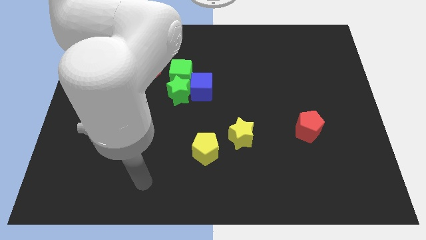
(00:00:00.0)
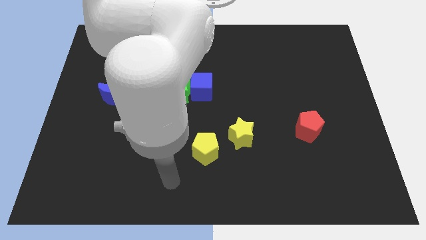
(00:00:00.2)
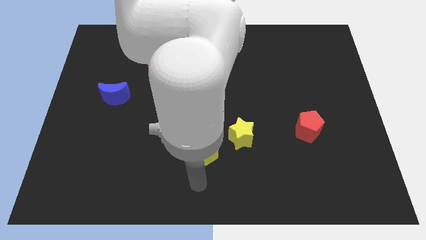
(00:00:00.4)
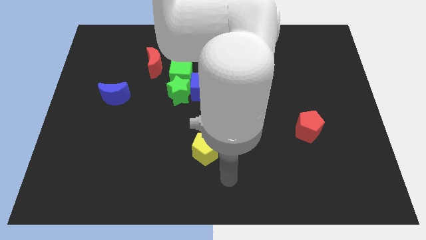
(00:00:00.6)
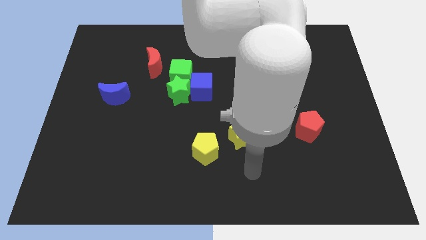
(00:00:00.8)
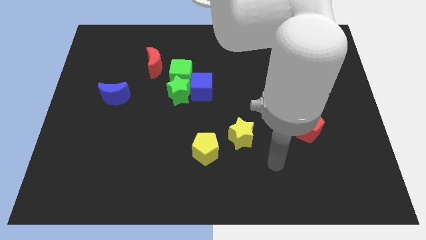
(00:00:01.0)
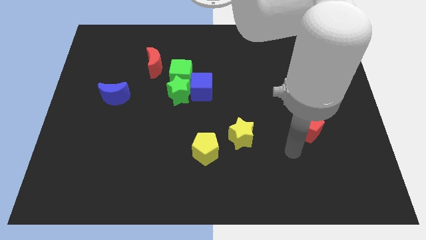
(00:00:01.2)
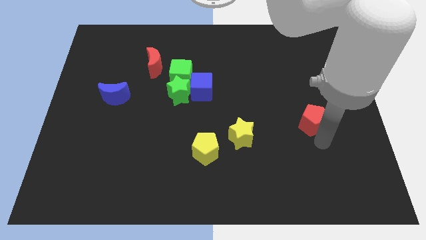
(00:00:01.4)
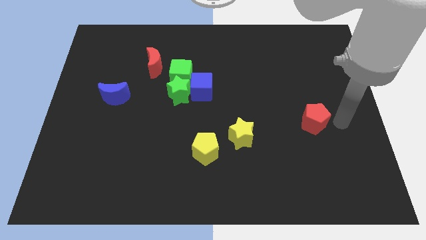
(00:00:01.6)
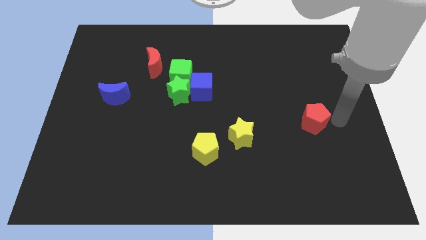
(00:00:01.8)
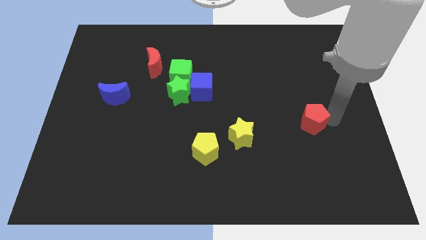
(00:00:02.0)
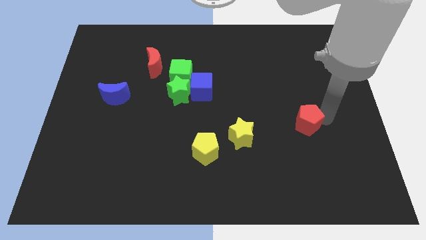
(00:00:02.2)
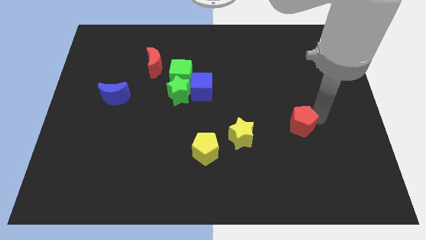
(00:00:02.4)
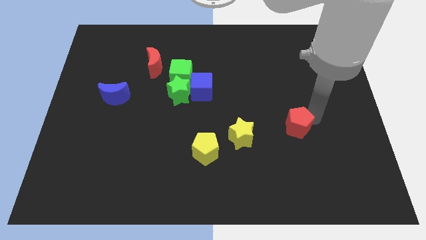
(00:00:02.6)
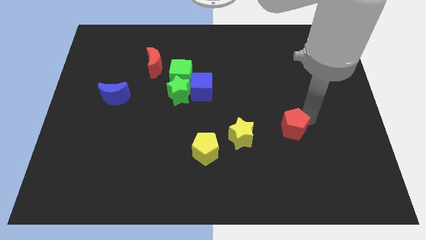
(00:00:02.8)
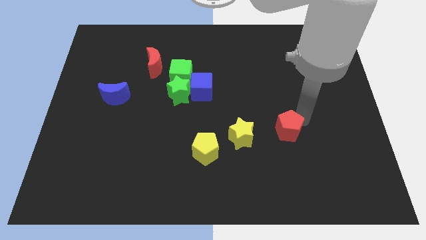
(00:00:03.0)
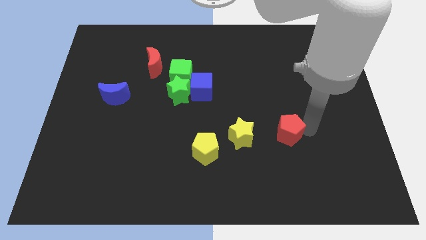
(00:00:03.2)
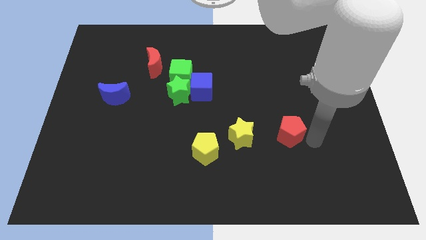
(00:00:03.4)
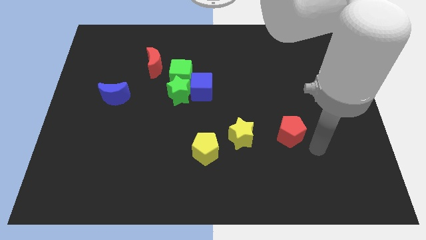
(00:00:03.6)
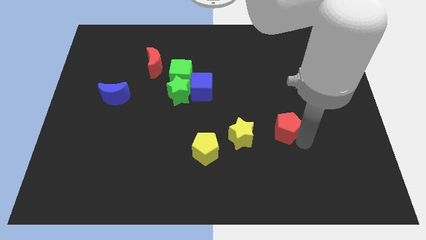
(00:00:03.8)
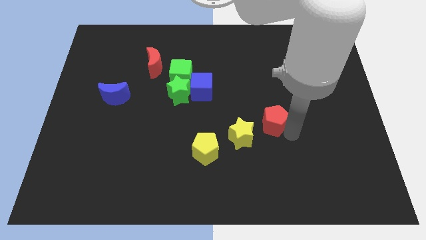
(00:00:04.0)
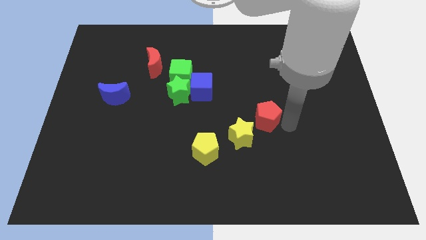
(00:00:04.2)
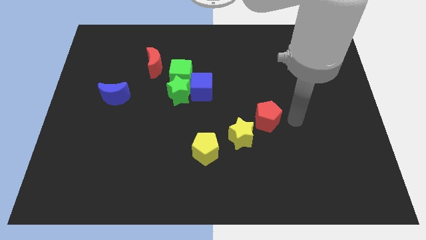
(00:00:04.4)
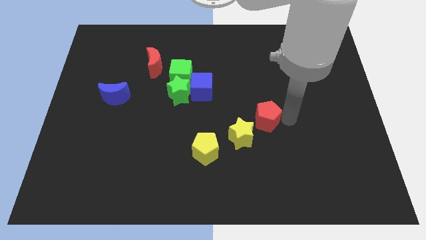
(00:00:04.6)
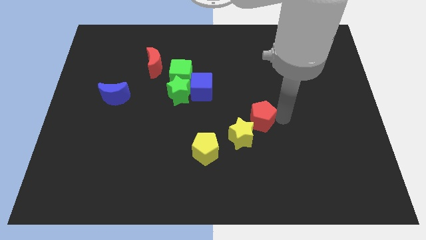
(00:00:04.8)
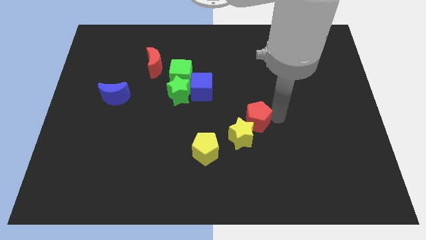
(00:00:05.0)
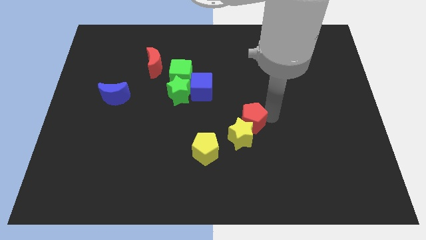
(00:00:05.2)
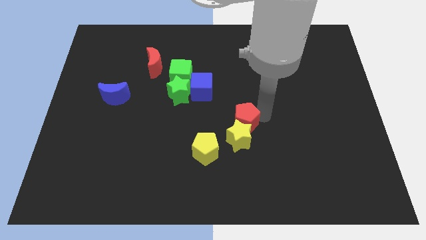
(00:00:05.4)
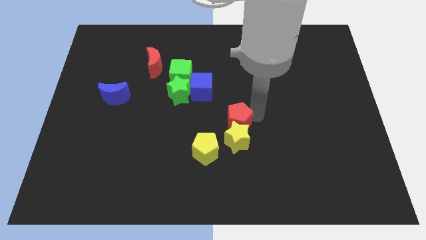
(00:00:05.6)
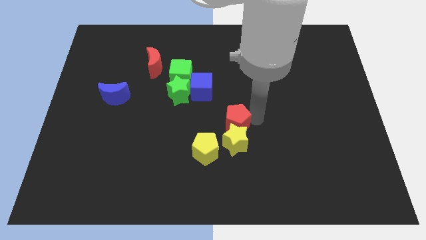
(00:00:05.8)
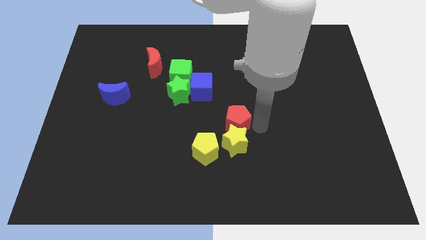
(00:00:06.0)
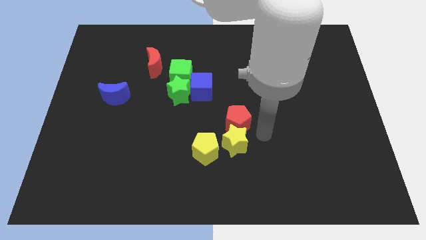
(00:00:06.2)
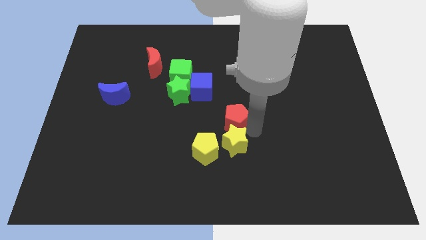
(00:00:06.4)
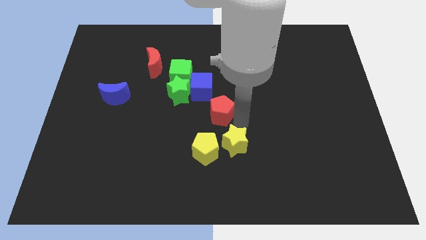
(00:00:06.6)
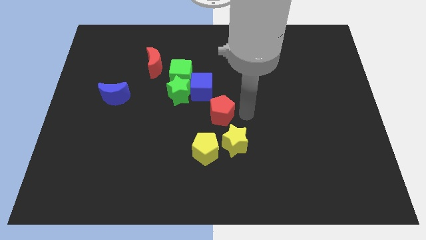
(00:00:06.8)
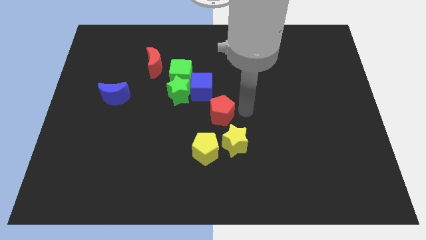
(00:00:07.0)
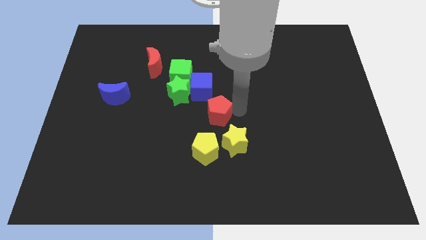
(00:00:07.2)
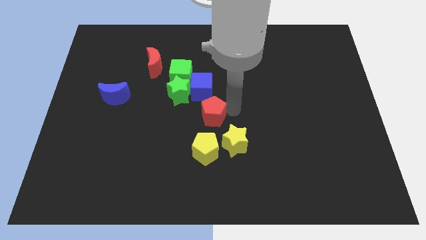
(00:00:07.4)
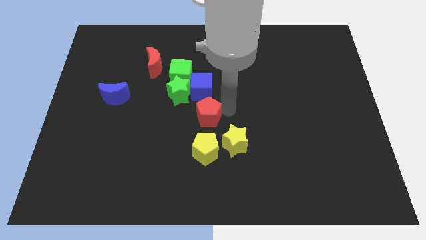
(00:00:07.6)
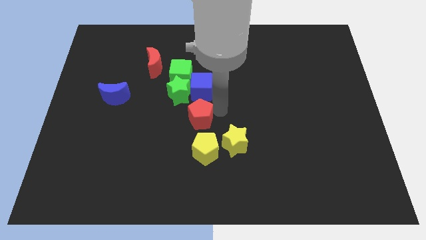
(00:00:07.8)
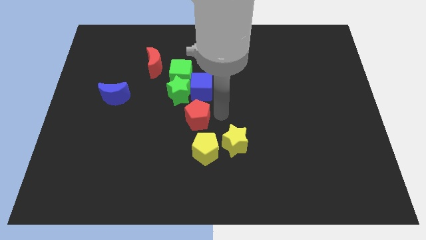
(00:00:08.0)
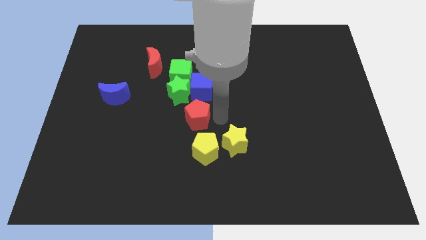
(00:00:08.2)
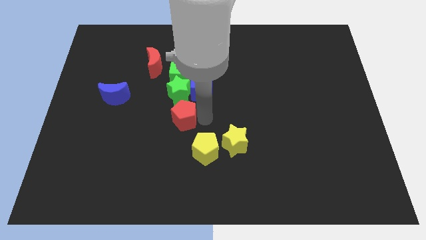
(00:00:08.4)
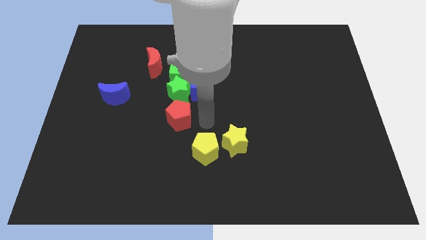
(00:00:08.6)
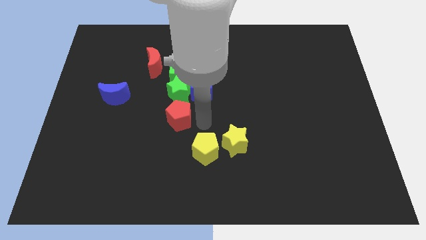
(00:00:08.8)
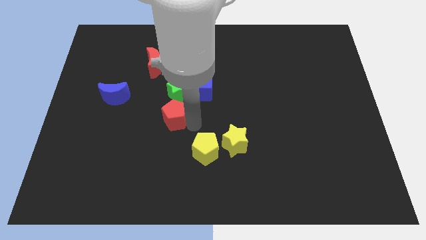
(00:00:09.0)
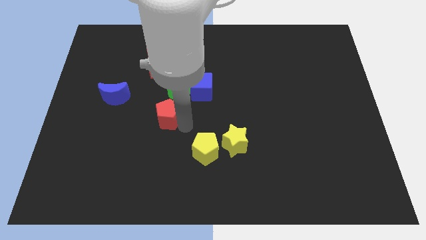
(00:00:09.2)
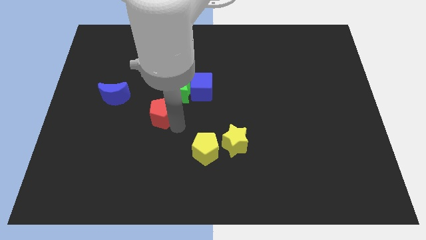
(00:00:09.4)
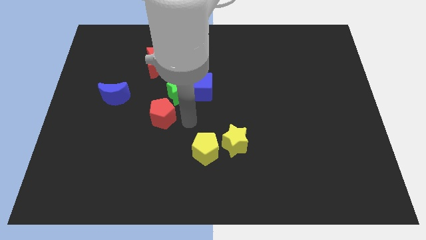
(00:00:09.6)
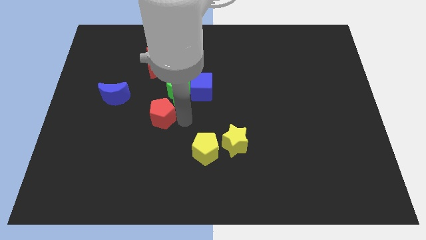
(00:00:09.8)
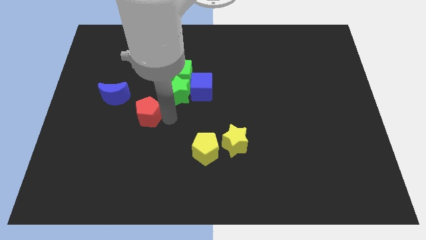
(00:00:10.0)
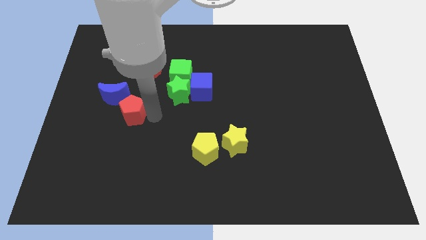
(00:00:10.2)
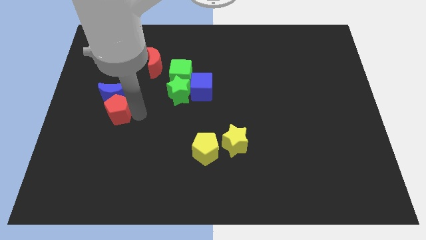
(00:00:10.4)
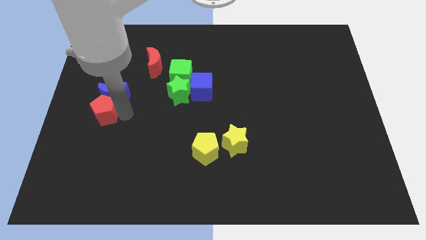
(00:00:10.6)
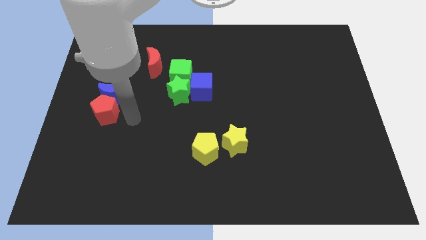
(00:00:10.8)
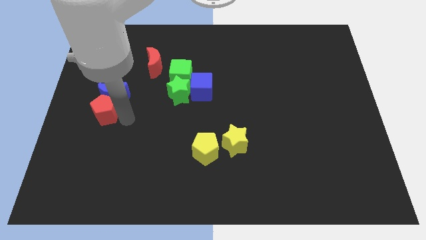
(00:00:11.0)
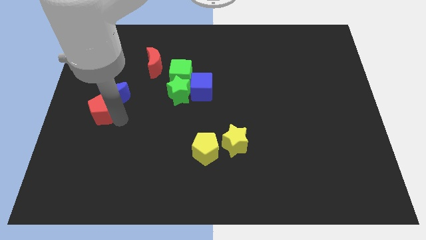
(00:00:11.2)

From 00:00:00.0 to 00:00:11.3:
slide the red pentagon to the left side
